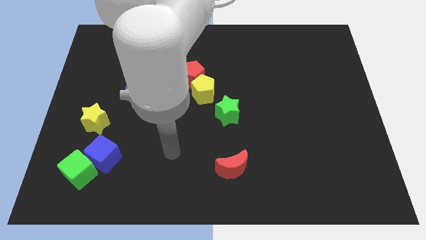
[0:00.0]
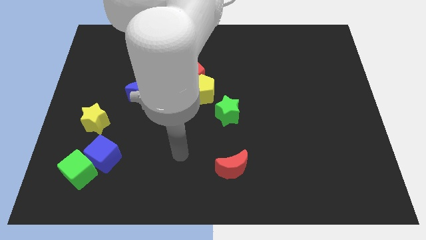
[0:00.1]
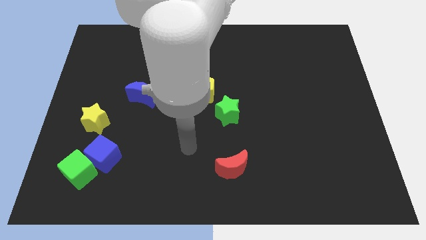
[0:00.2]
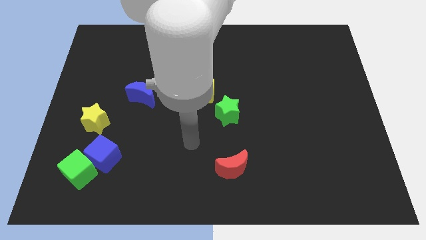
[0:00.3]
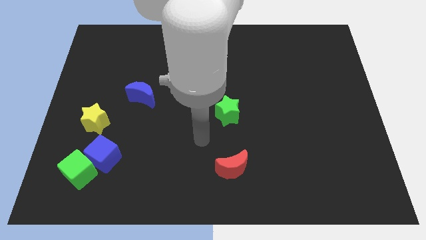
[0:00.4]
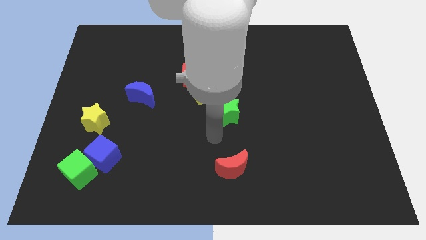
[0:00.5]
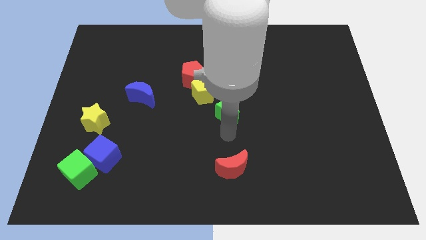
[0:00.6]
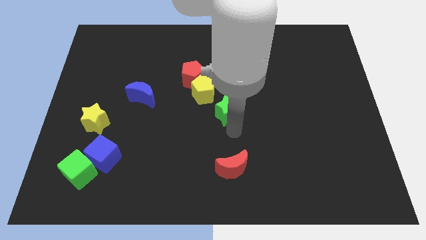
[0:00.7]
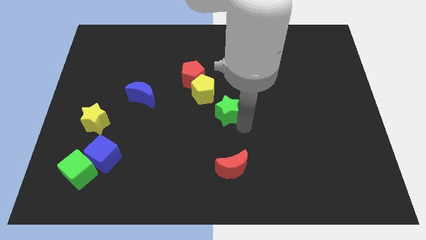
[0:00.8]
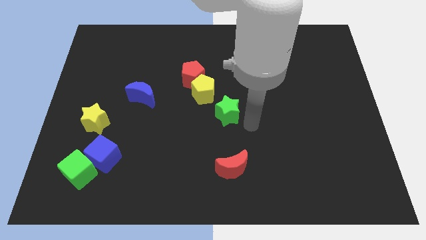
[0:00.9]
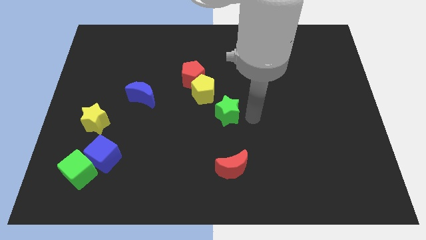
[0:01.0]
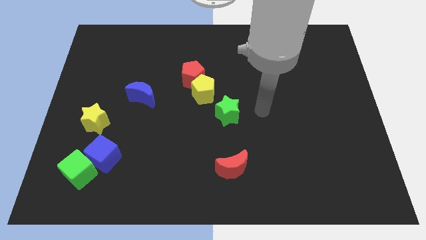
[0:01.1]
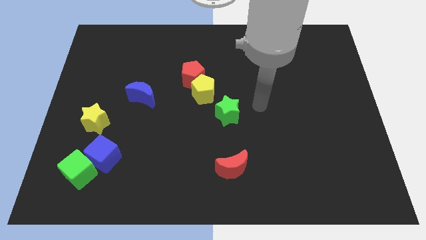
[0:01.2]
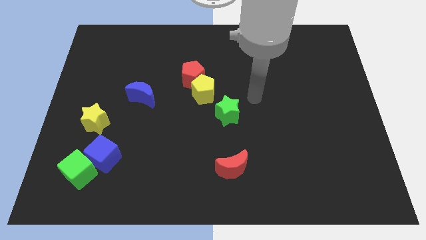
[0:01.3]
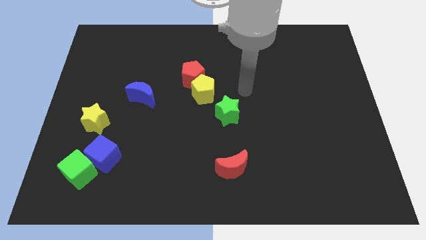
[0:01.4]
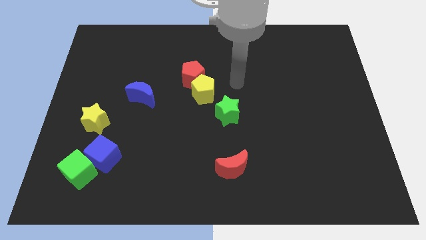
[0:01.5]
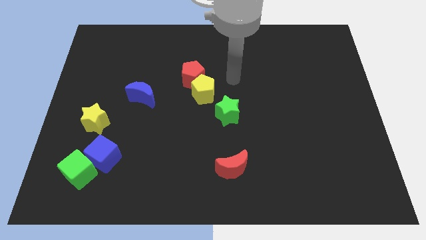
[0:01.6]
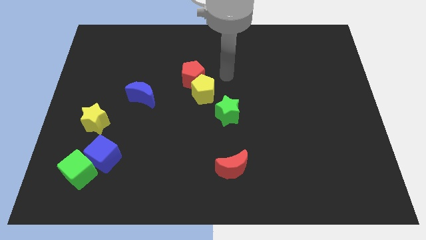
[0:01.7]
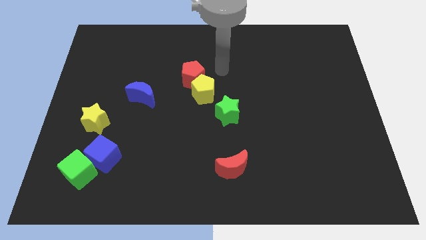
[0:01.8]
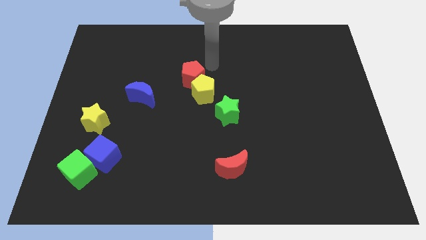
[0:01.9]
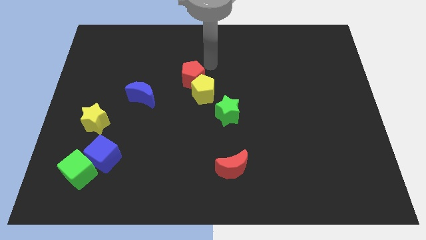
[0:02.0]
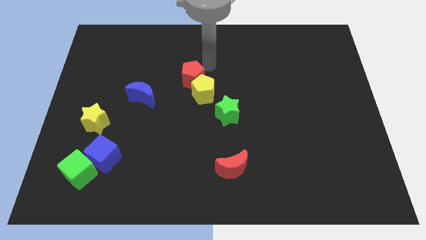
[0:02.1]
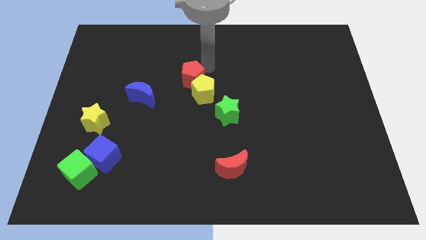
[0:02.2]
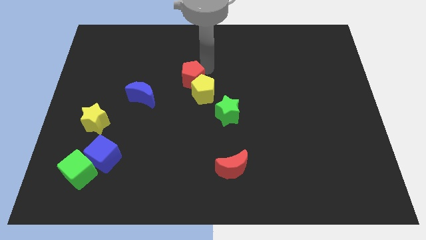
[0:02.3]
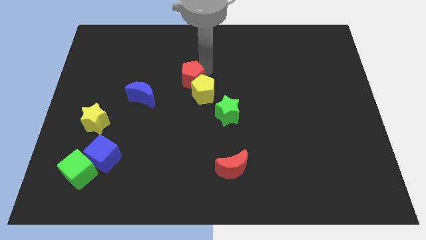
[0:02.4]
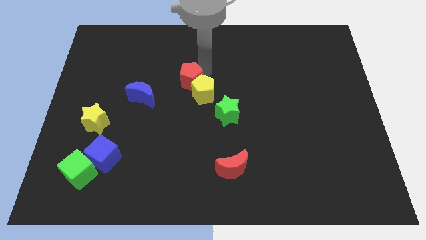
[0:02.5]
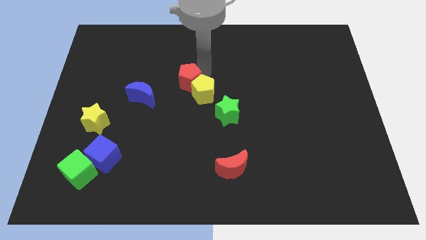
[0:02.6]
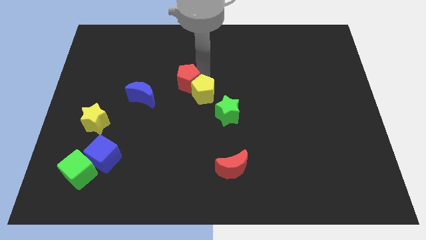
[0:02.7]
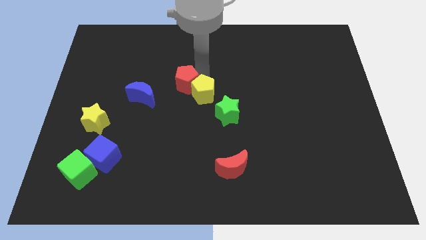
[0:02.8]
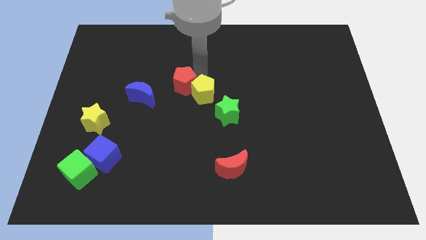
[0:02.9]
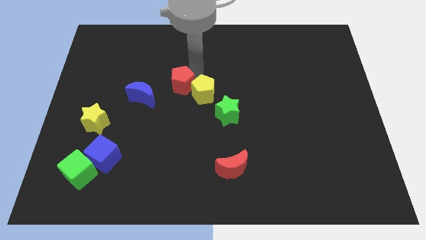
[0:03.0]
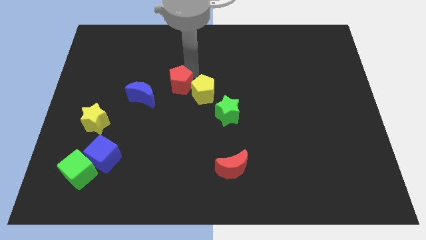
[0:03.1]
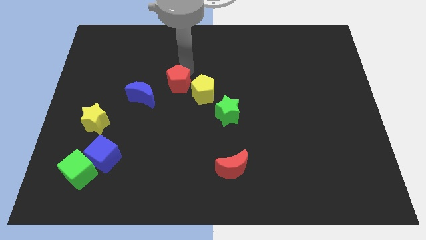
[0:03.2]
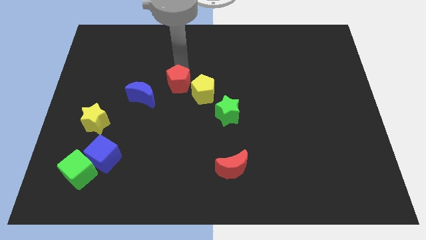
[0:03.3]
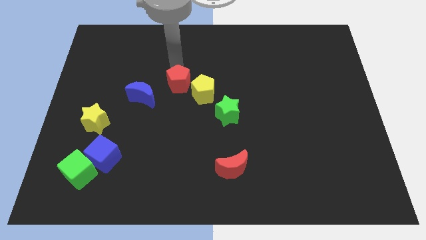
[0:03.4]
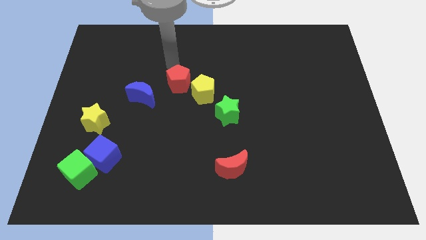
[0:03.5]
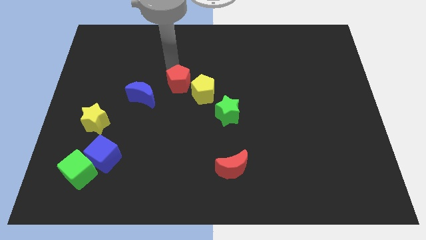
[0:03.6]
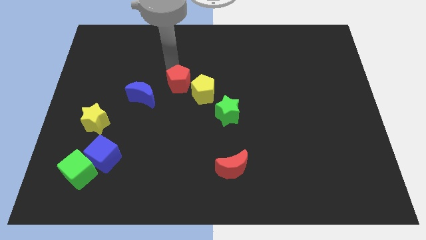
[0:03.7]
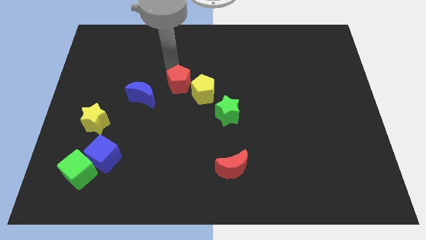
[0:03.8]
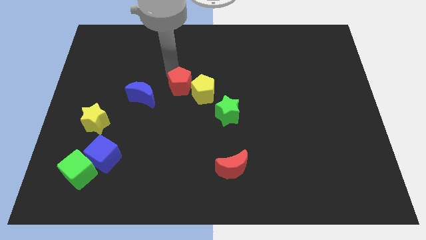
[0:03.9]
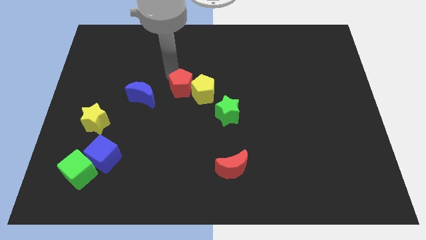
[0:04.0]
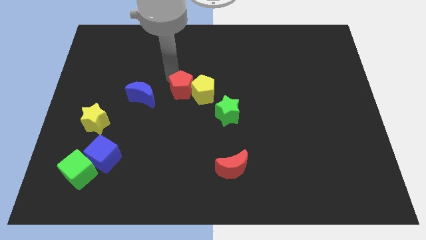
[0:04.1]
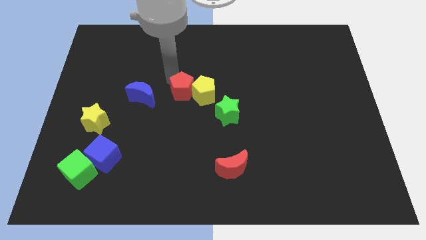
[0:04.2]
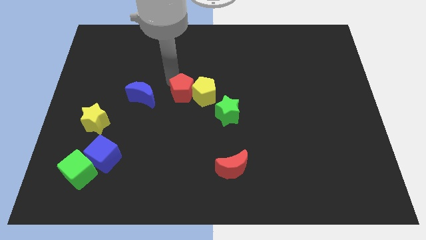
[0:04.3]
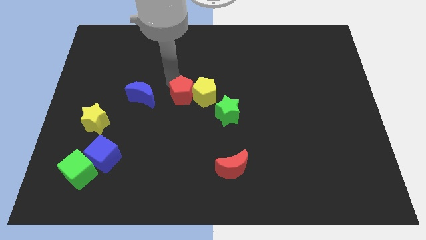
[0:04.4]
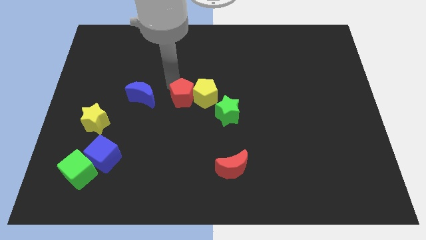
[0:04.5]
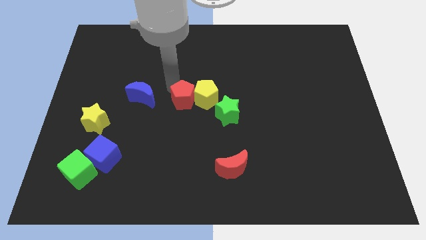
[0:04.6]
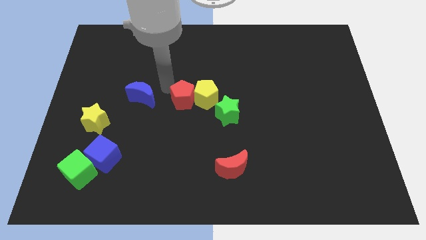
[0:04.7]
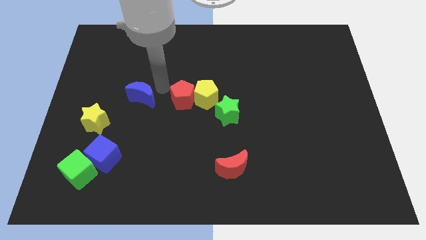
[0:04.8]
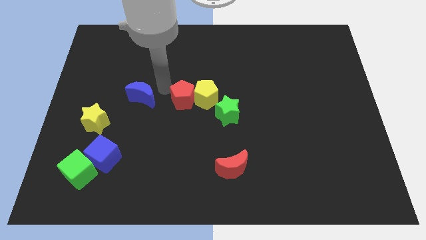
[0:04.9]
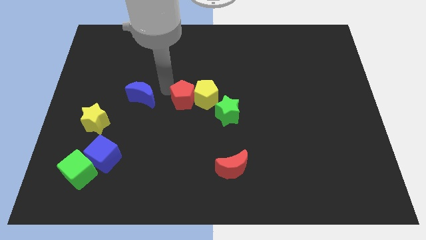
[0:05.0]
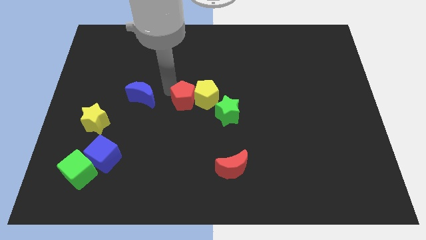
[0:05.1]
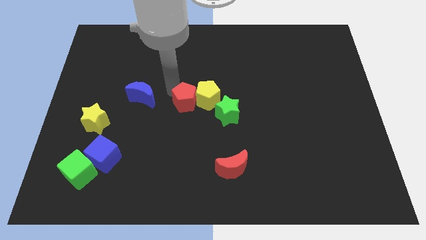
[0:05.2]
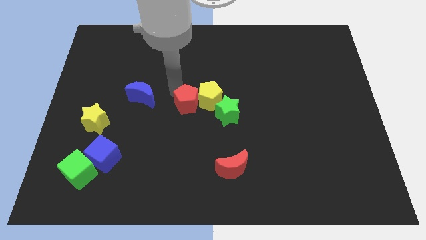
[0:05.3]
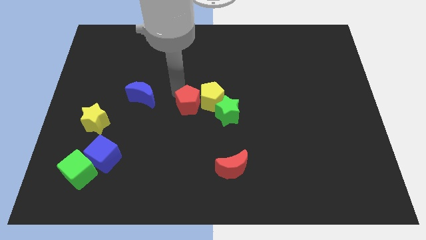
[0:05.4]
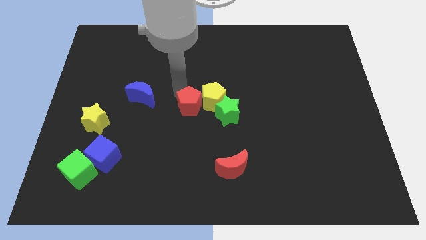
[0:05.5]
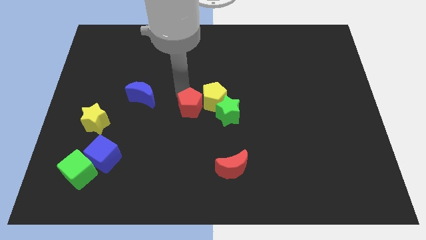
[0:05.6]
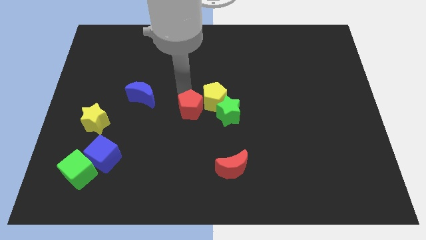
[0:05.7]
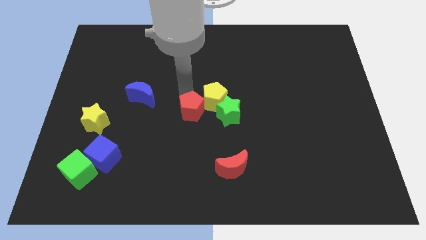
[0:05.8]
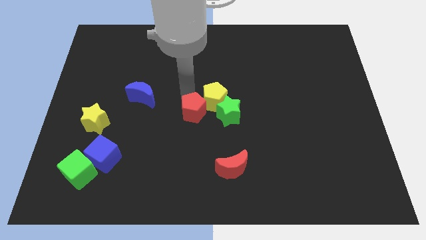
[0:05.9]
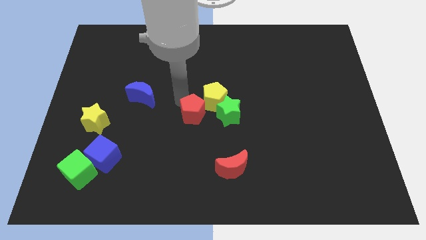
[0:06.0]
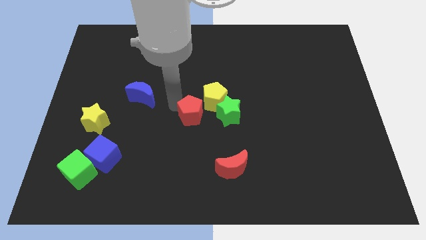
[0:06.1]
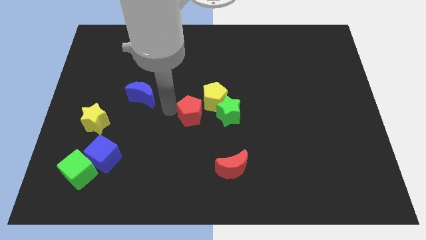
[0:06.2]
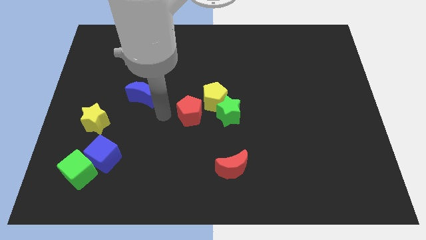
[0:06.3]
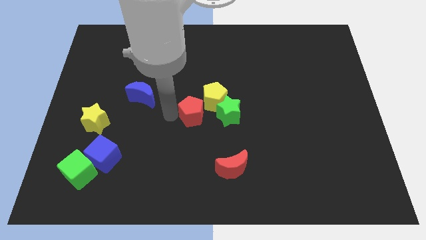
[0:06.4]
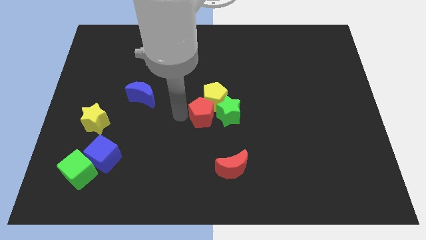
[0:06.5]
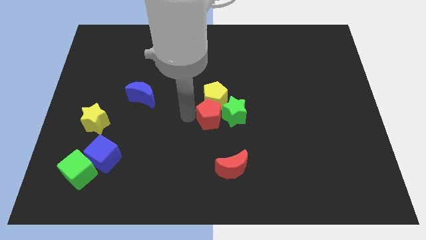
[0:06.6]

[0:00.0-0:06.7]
move the red pentagon to the green star
